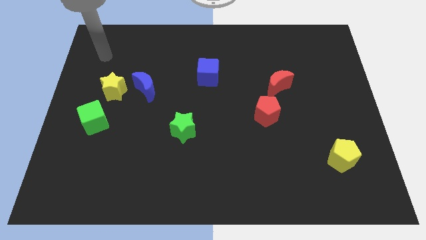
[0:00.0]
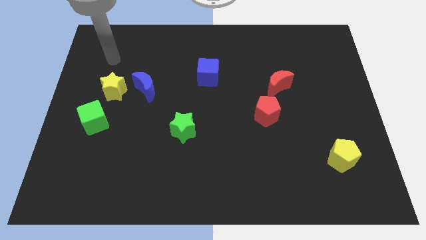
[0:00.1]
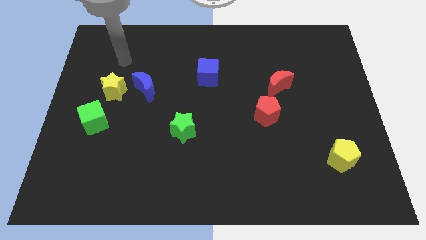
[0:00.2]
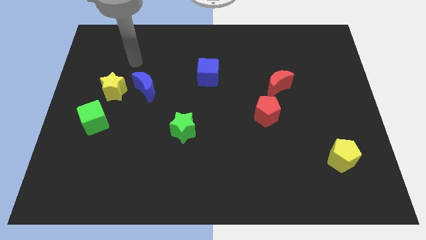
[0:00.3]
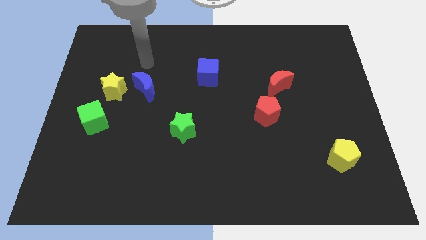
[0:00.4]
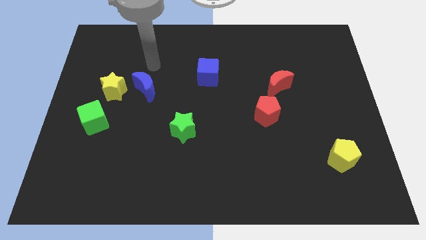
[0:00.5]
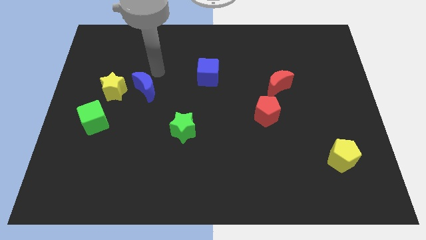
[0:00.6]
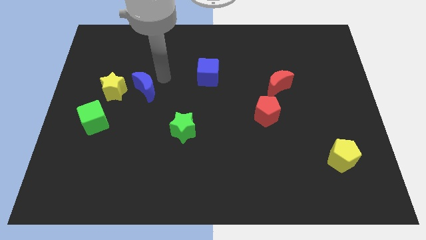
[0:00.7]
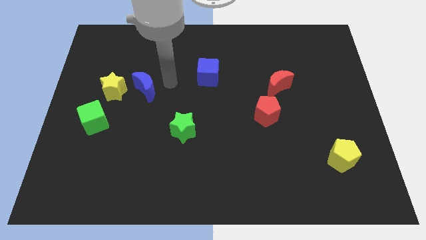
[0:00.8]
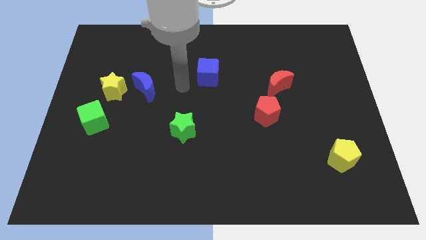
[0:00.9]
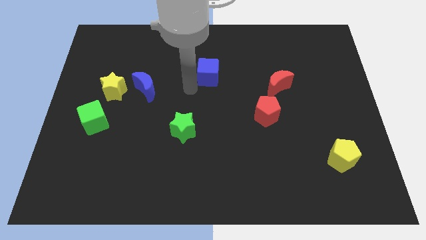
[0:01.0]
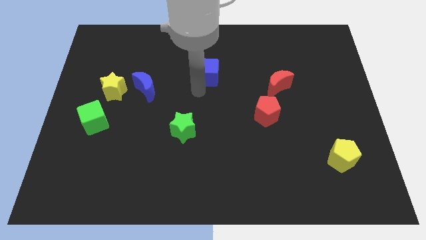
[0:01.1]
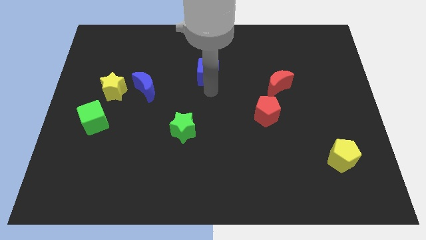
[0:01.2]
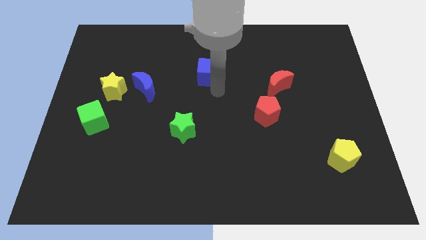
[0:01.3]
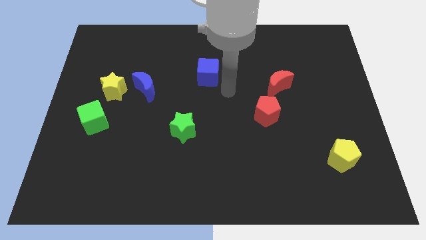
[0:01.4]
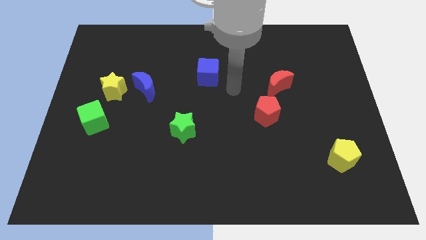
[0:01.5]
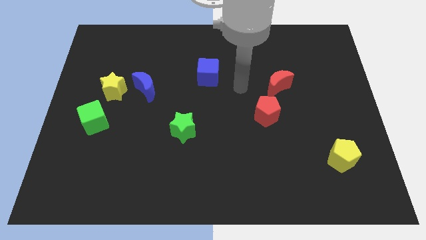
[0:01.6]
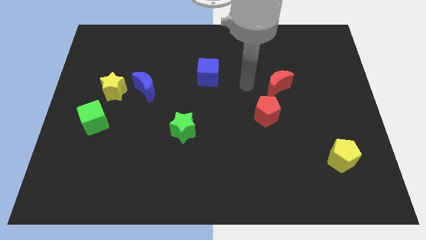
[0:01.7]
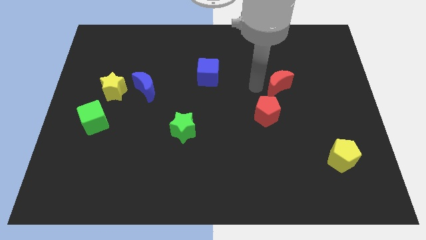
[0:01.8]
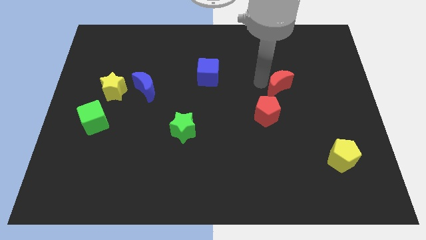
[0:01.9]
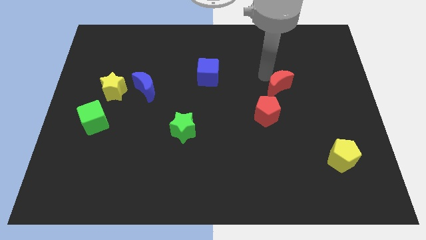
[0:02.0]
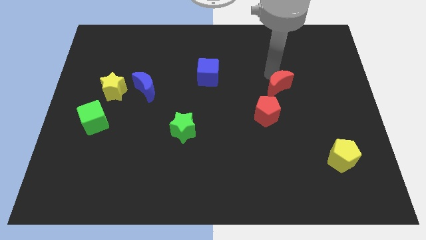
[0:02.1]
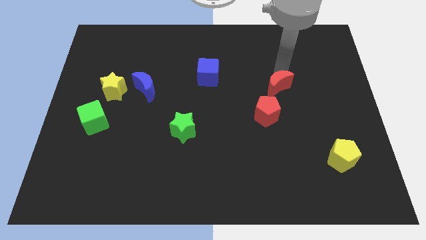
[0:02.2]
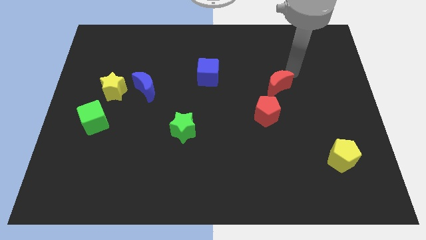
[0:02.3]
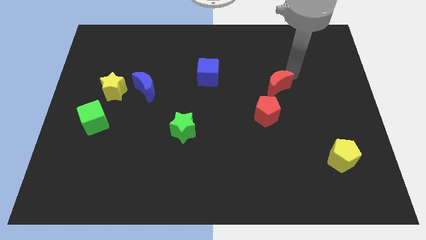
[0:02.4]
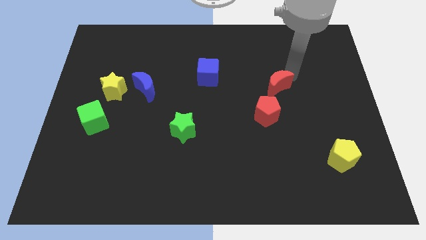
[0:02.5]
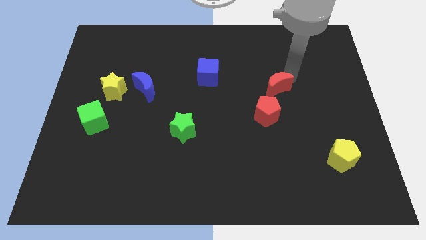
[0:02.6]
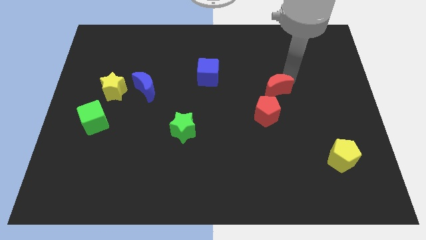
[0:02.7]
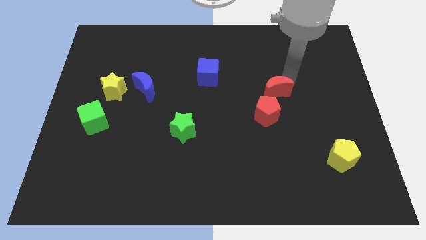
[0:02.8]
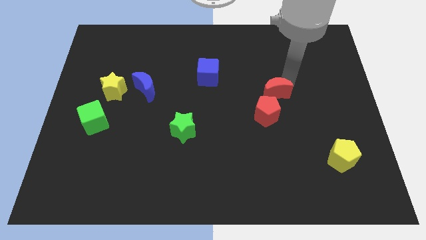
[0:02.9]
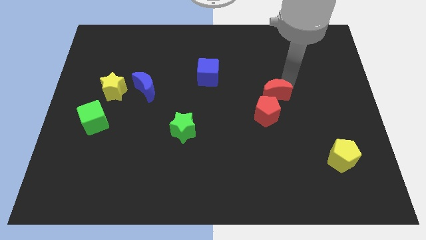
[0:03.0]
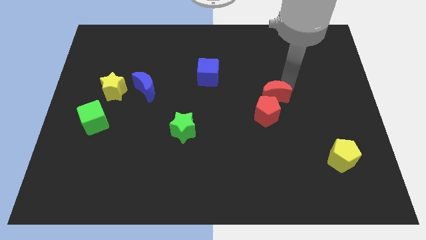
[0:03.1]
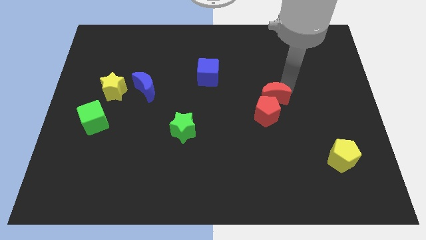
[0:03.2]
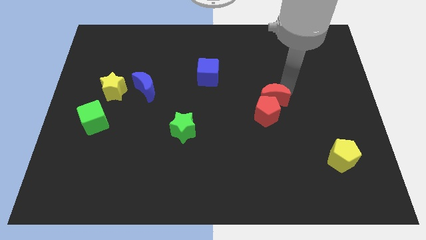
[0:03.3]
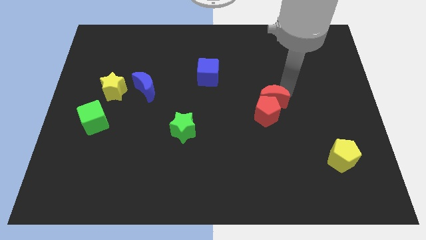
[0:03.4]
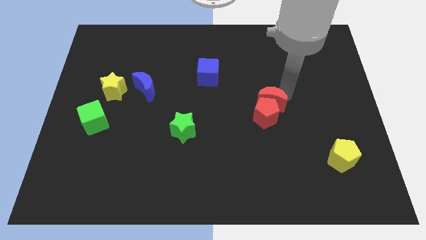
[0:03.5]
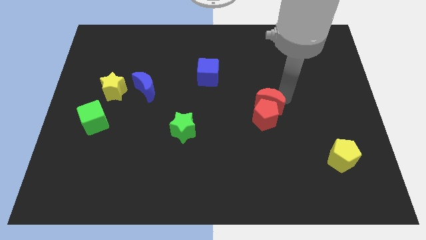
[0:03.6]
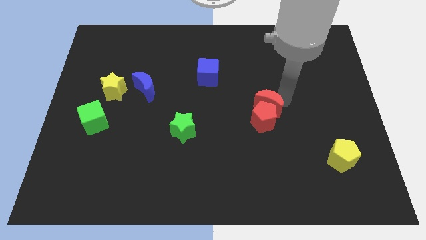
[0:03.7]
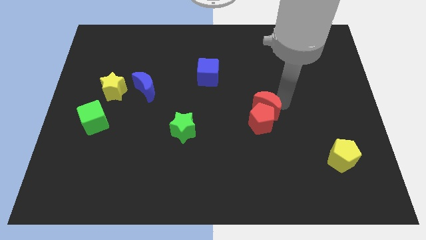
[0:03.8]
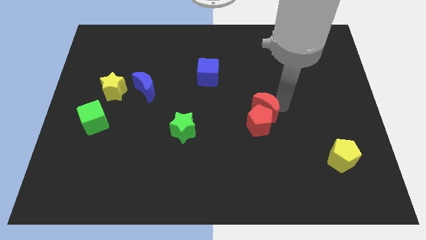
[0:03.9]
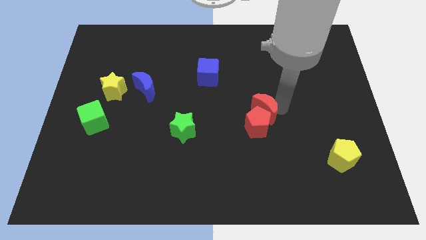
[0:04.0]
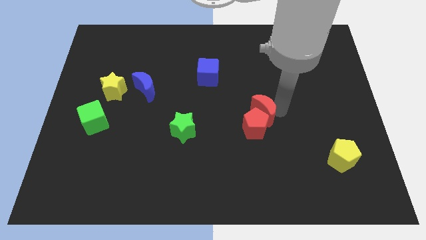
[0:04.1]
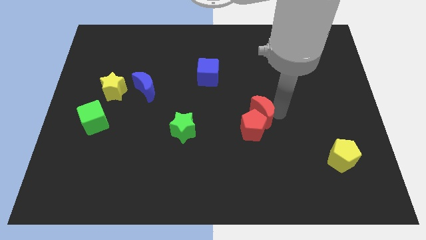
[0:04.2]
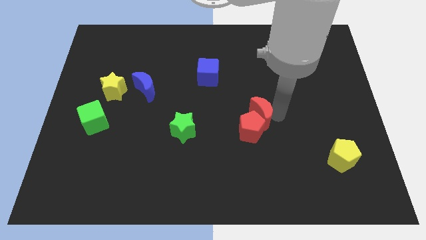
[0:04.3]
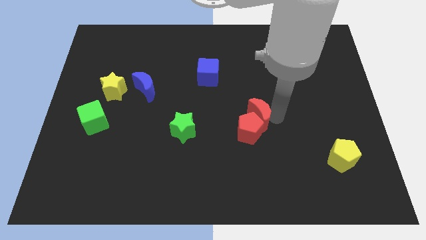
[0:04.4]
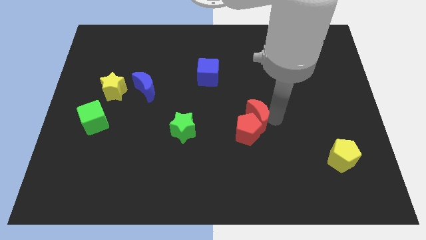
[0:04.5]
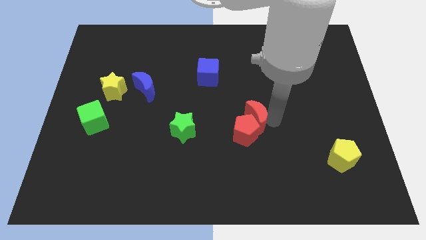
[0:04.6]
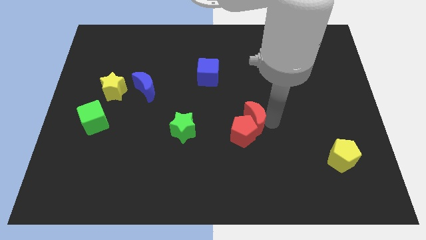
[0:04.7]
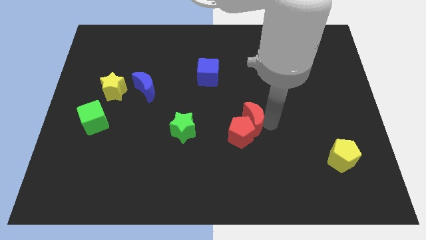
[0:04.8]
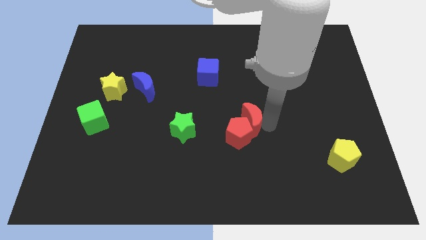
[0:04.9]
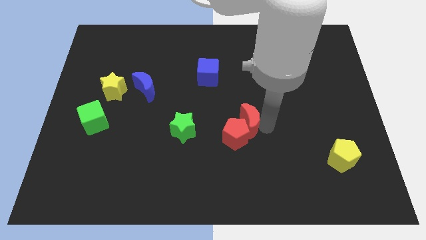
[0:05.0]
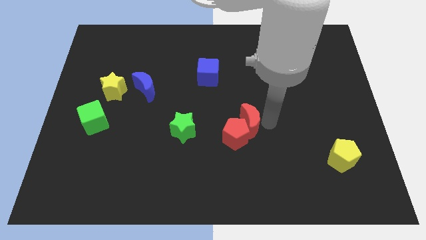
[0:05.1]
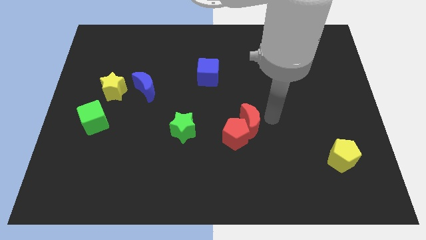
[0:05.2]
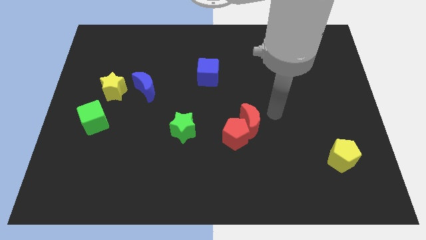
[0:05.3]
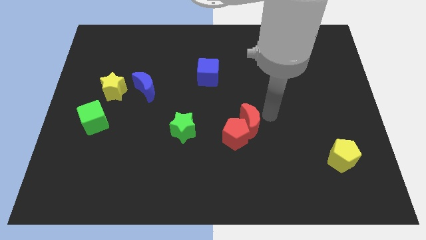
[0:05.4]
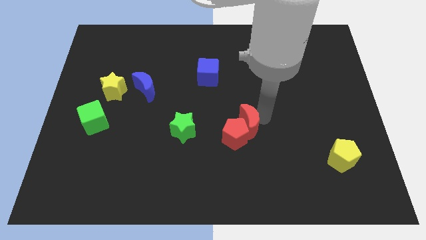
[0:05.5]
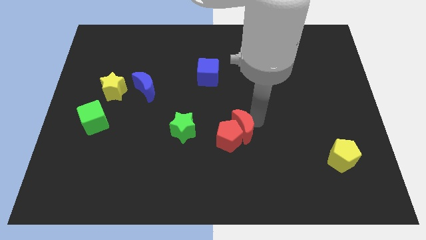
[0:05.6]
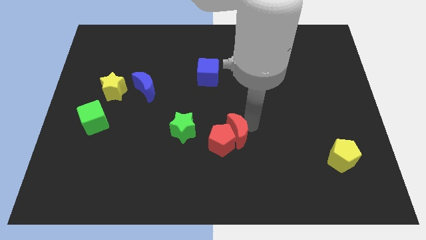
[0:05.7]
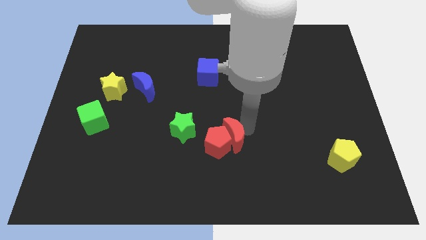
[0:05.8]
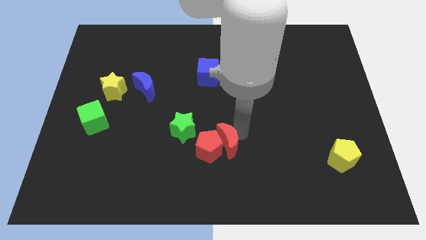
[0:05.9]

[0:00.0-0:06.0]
move the red moon down and to the left diagonally

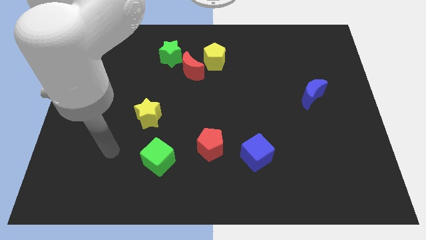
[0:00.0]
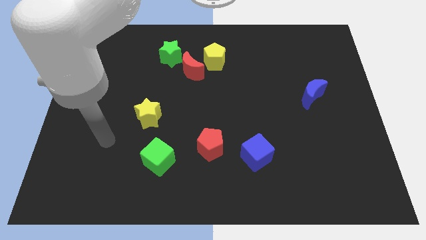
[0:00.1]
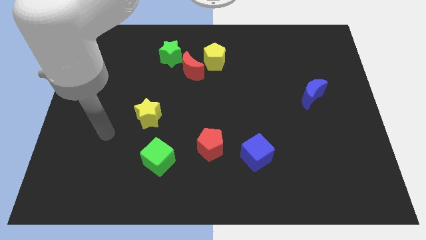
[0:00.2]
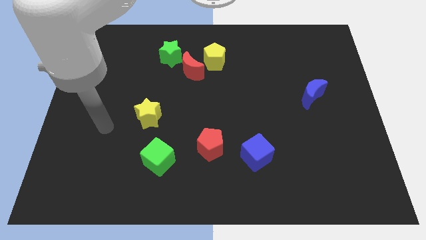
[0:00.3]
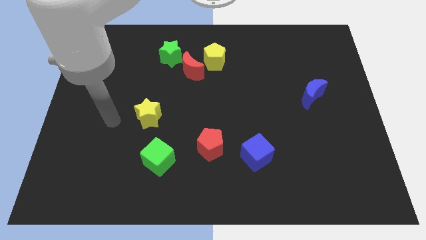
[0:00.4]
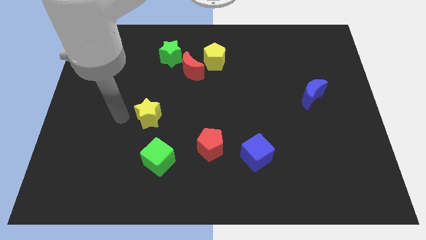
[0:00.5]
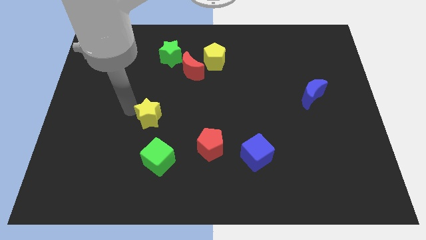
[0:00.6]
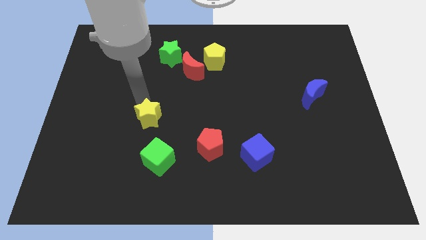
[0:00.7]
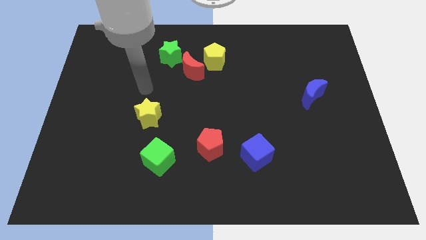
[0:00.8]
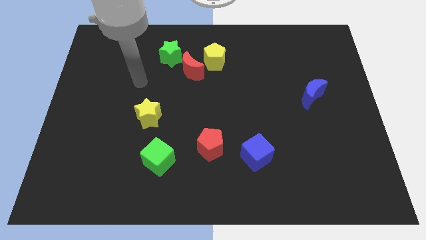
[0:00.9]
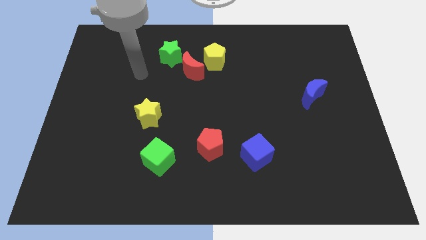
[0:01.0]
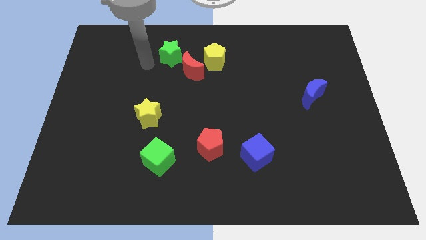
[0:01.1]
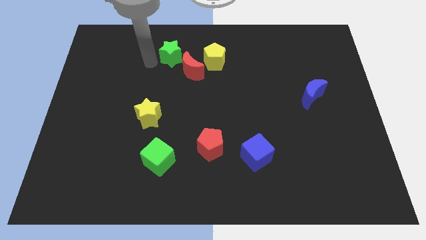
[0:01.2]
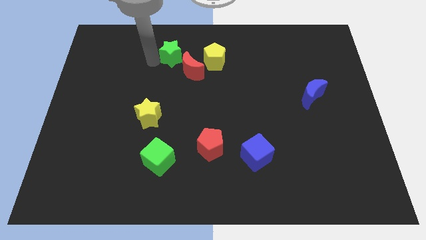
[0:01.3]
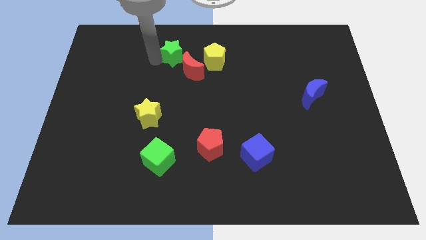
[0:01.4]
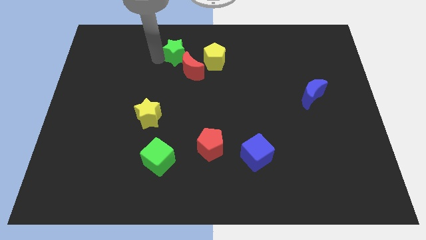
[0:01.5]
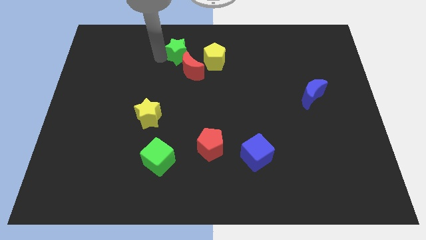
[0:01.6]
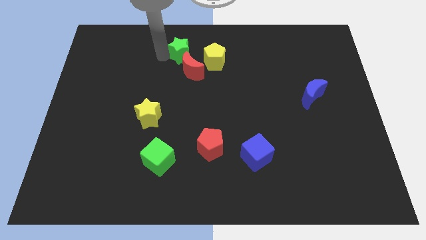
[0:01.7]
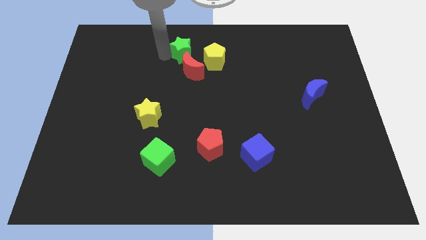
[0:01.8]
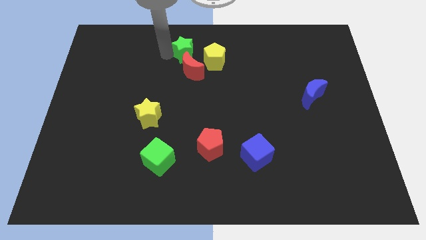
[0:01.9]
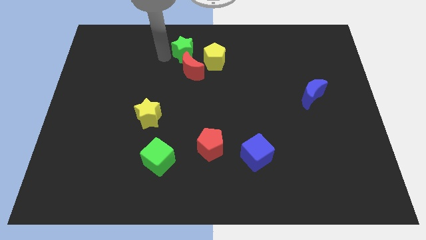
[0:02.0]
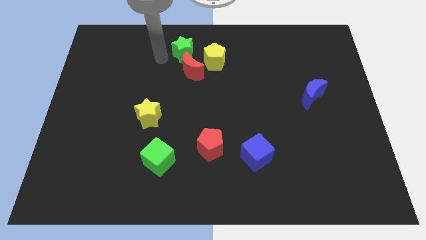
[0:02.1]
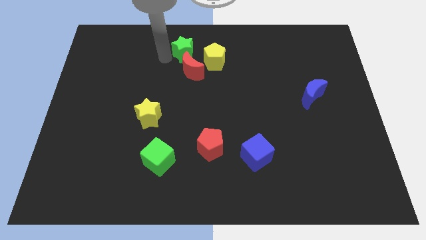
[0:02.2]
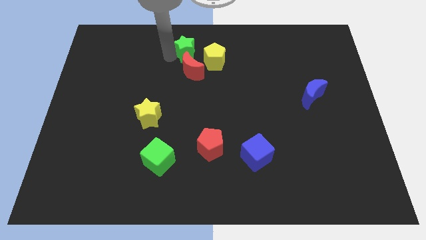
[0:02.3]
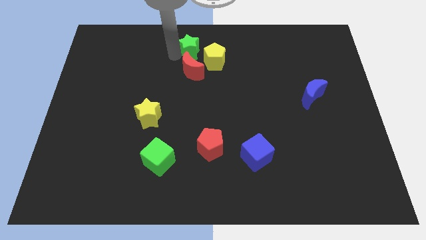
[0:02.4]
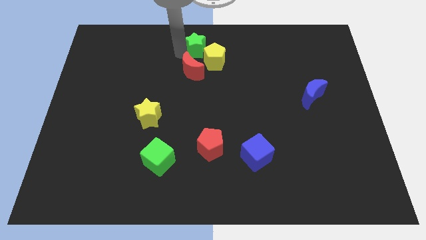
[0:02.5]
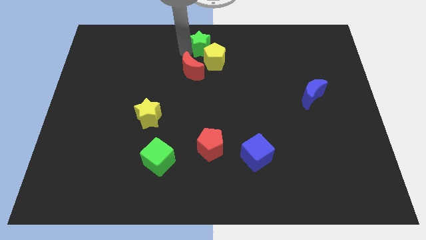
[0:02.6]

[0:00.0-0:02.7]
push the green star somewhat right
